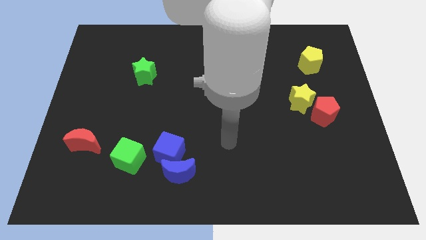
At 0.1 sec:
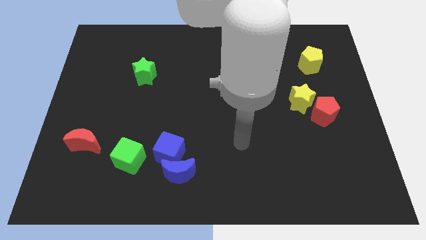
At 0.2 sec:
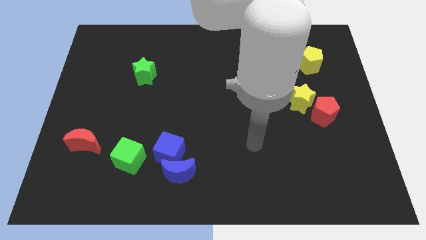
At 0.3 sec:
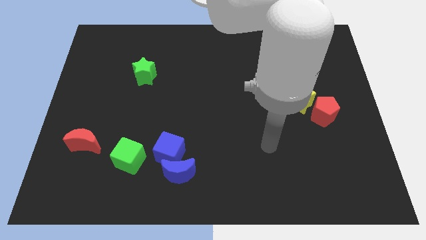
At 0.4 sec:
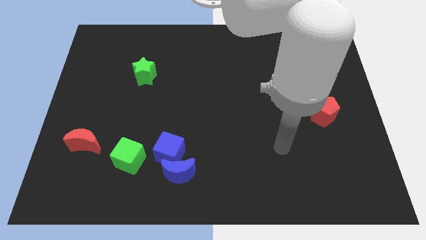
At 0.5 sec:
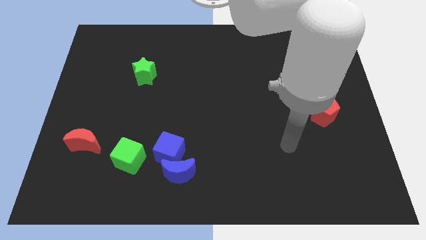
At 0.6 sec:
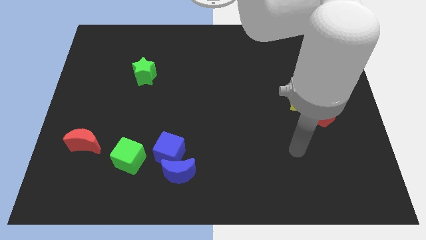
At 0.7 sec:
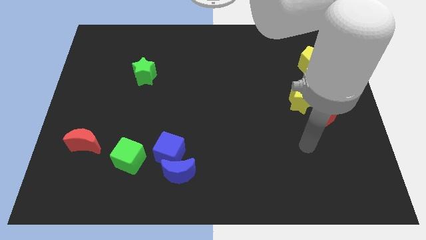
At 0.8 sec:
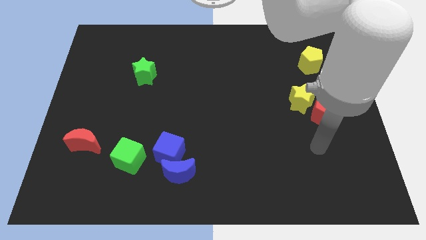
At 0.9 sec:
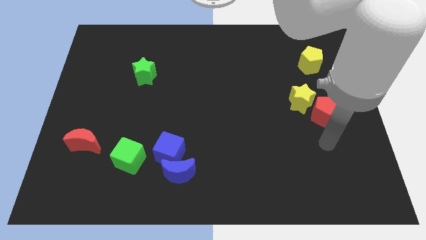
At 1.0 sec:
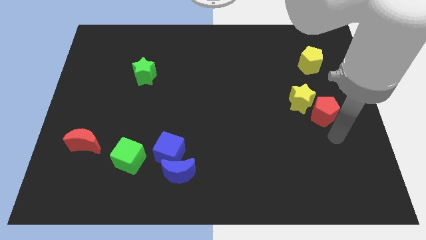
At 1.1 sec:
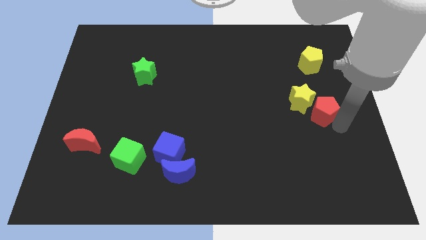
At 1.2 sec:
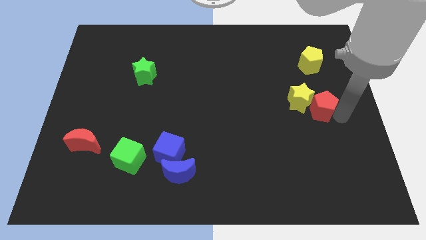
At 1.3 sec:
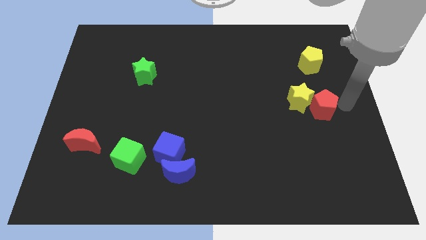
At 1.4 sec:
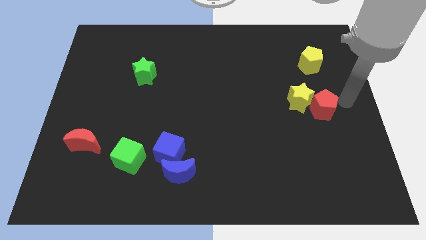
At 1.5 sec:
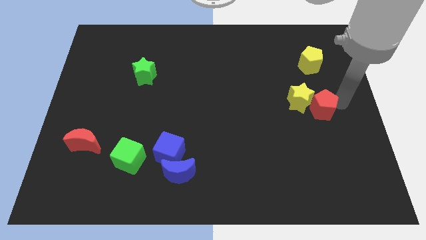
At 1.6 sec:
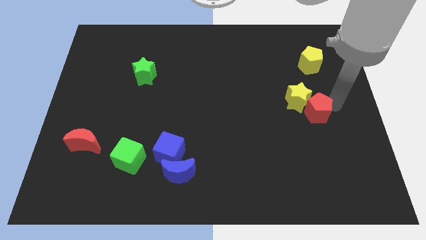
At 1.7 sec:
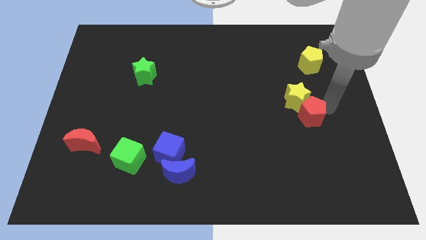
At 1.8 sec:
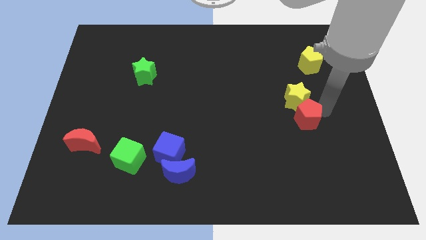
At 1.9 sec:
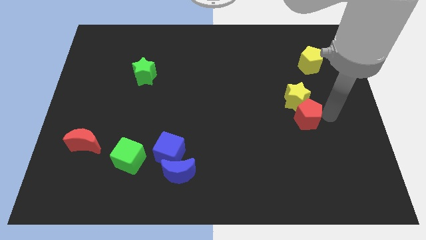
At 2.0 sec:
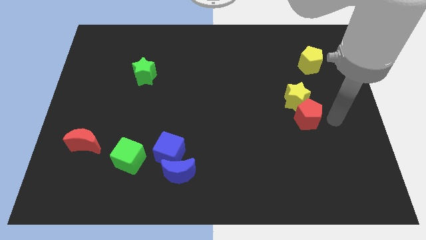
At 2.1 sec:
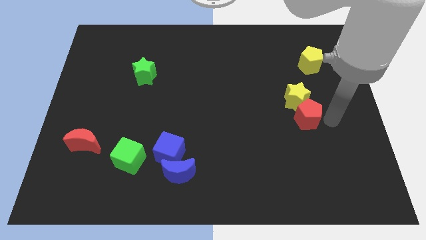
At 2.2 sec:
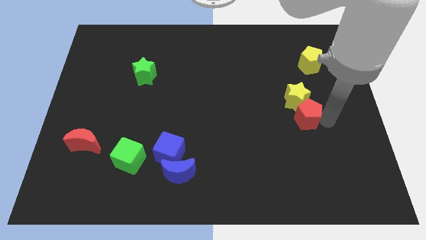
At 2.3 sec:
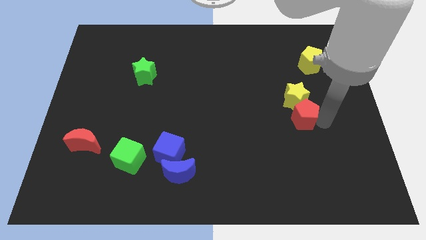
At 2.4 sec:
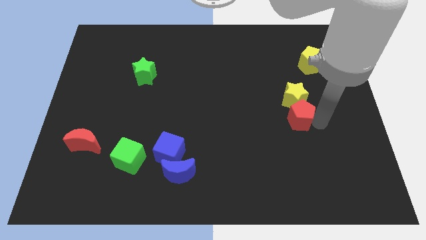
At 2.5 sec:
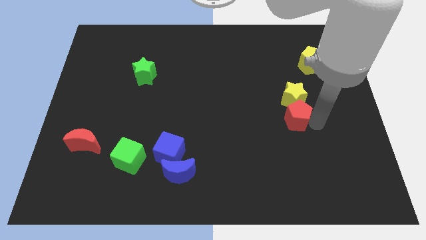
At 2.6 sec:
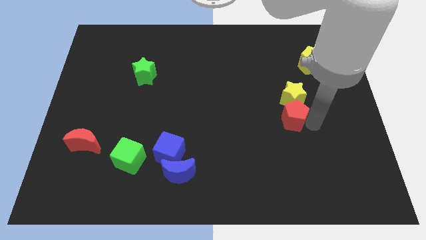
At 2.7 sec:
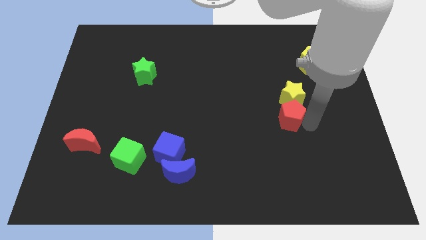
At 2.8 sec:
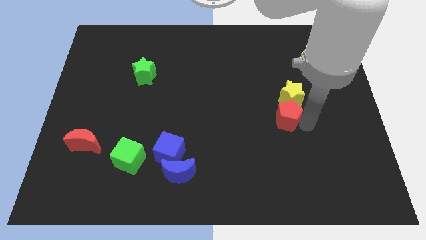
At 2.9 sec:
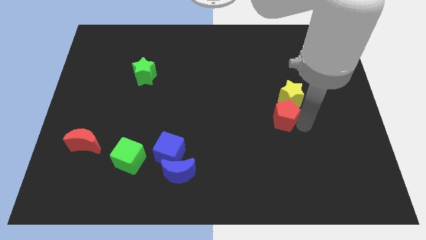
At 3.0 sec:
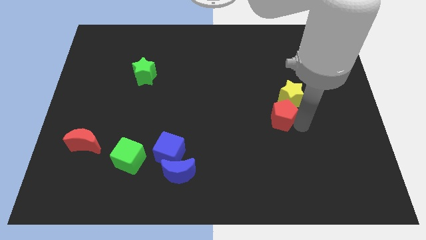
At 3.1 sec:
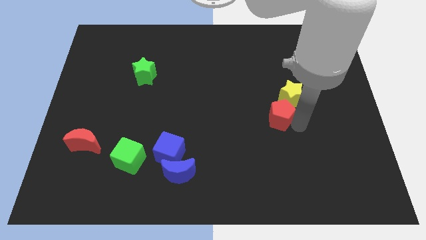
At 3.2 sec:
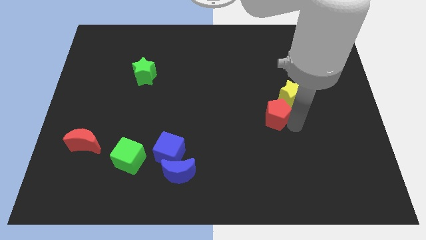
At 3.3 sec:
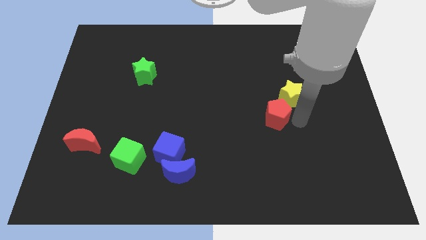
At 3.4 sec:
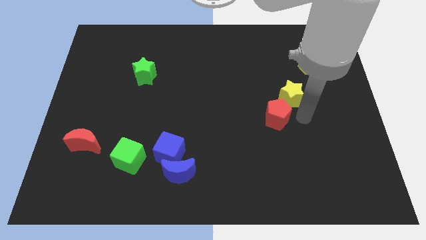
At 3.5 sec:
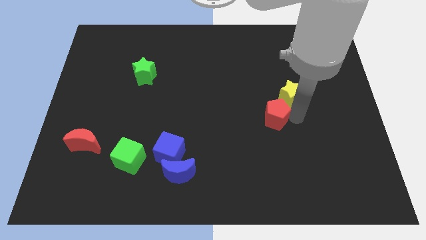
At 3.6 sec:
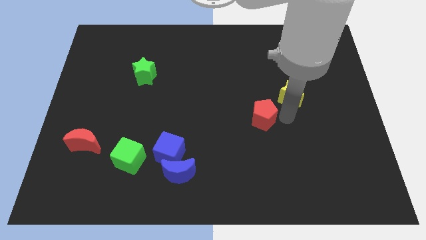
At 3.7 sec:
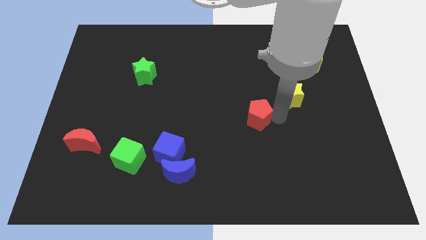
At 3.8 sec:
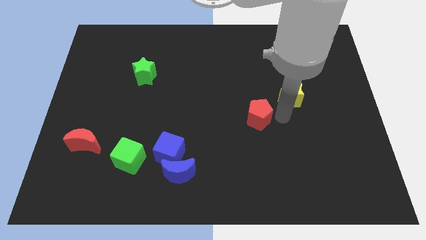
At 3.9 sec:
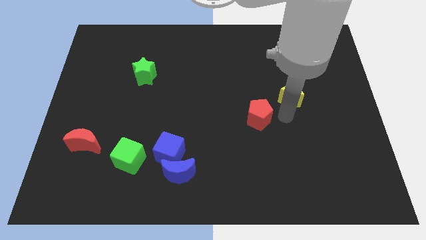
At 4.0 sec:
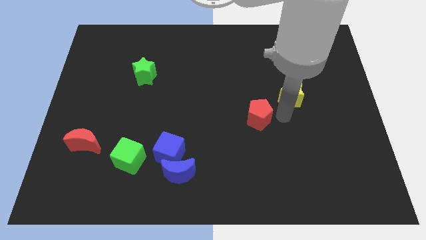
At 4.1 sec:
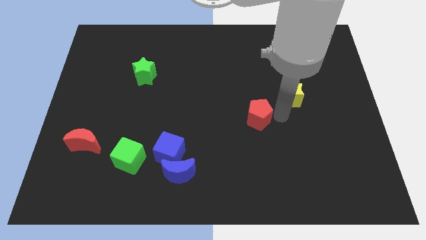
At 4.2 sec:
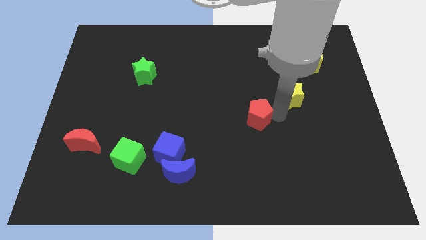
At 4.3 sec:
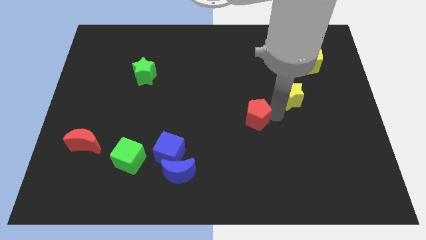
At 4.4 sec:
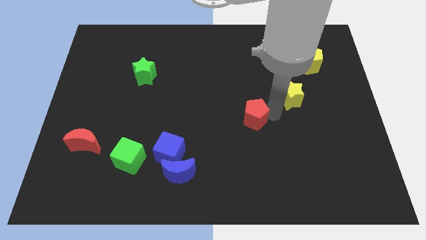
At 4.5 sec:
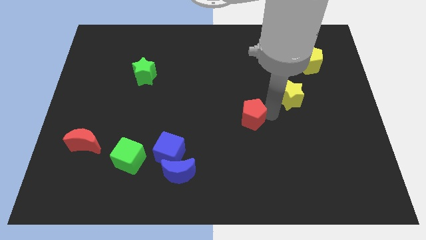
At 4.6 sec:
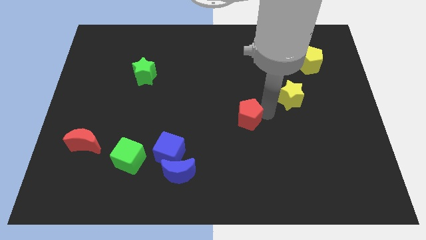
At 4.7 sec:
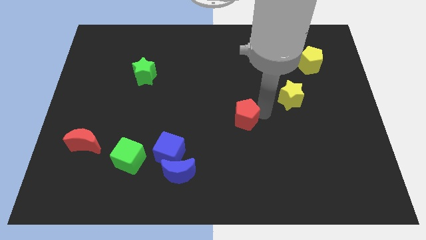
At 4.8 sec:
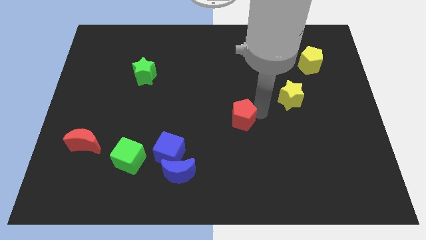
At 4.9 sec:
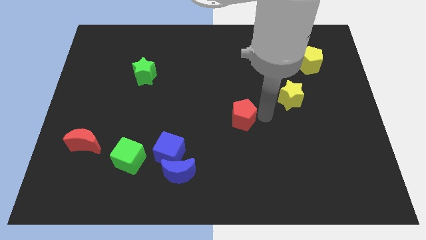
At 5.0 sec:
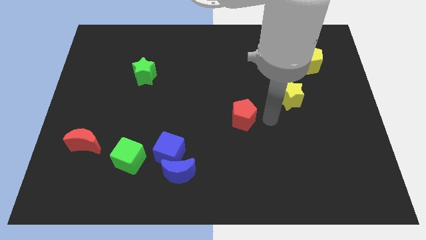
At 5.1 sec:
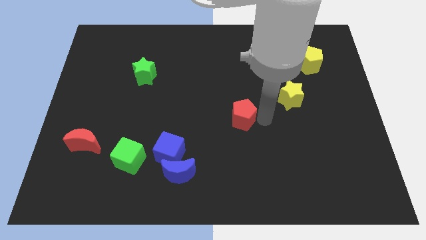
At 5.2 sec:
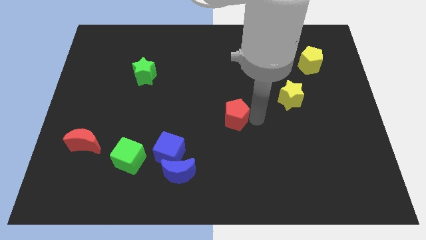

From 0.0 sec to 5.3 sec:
slide the red pentagon left

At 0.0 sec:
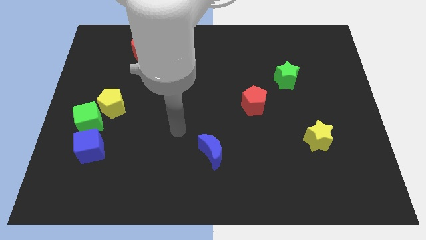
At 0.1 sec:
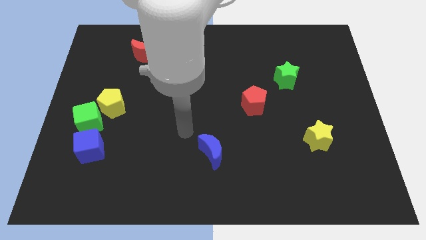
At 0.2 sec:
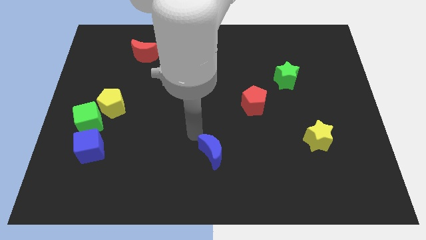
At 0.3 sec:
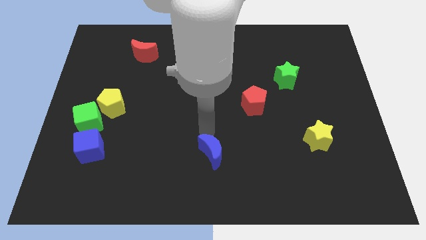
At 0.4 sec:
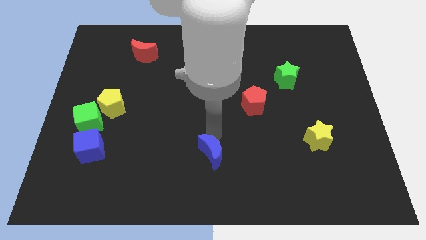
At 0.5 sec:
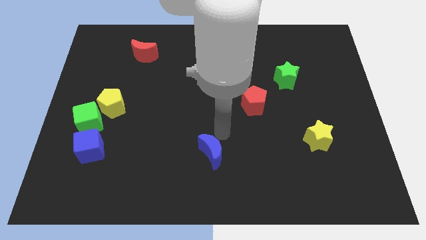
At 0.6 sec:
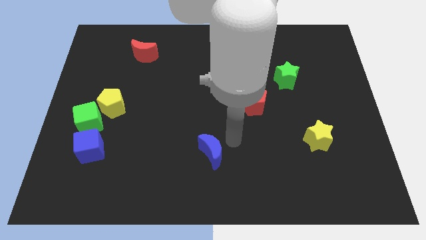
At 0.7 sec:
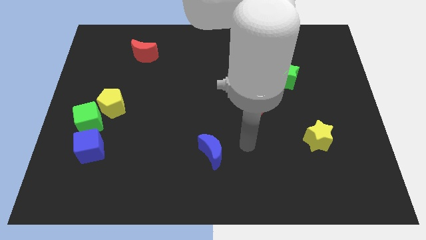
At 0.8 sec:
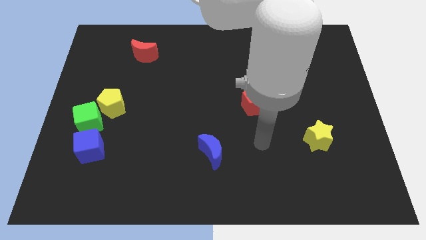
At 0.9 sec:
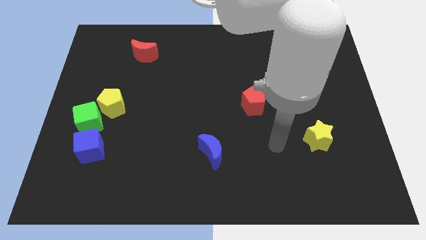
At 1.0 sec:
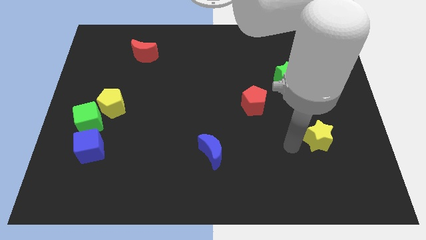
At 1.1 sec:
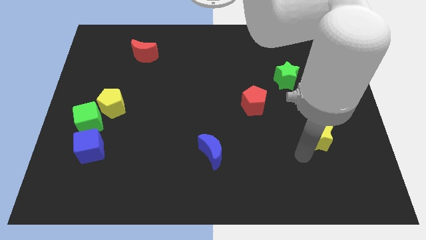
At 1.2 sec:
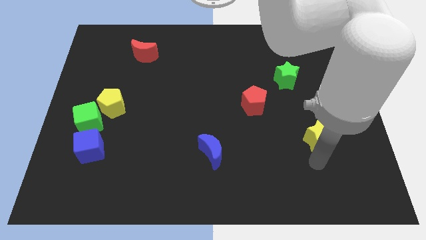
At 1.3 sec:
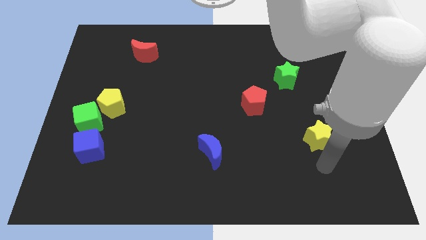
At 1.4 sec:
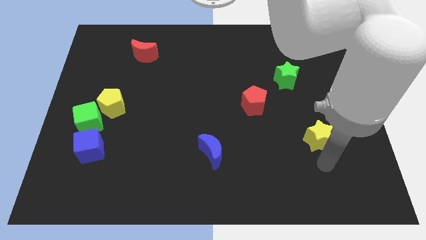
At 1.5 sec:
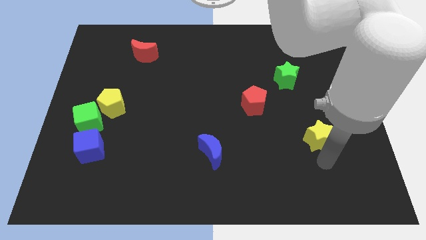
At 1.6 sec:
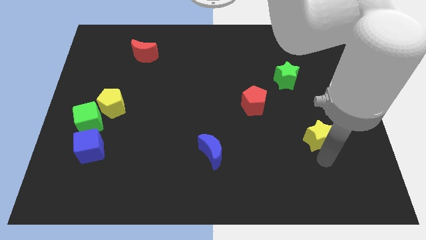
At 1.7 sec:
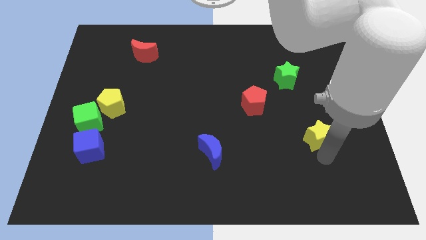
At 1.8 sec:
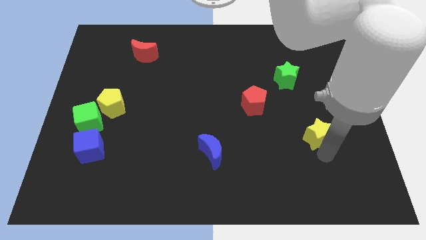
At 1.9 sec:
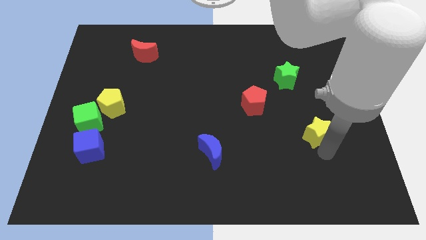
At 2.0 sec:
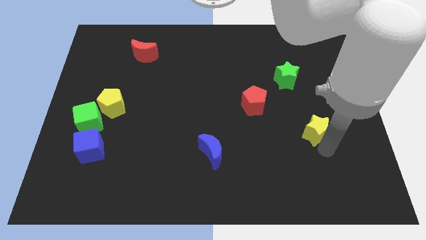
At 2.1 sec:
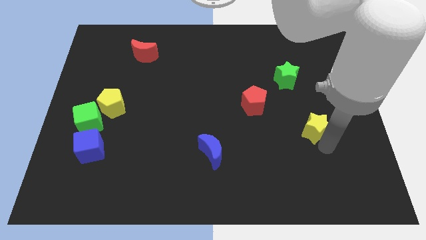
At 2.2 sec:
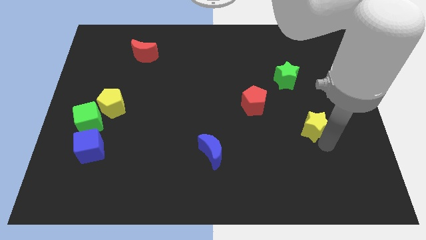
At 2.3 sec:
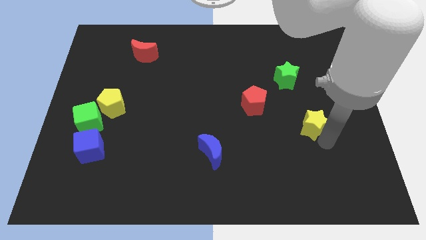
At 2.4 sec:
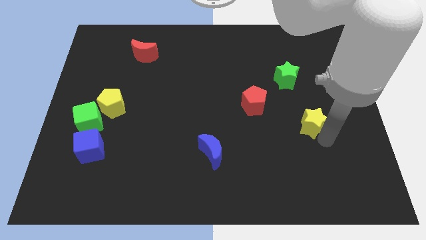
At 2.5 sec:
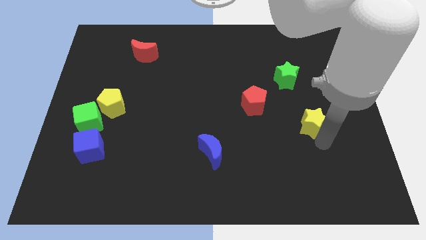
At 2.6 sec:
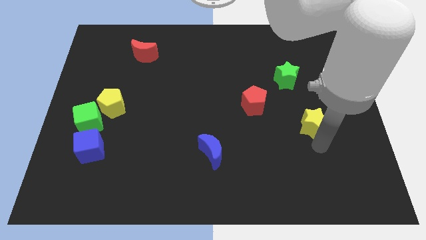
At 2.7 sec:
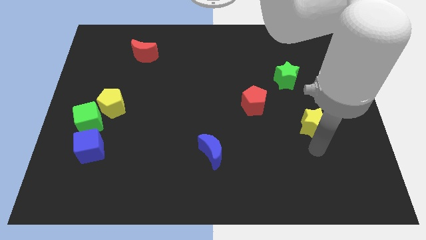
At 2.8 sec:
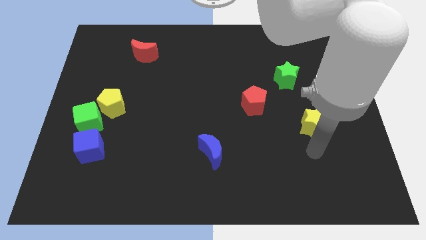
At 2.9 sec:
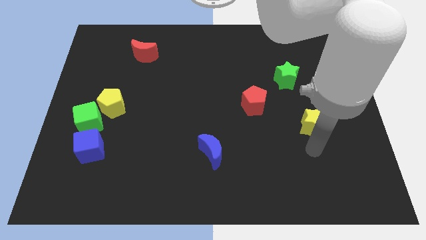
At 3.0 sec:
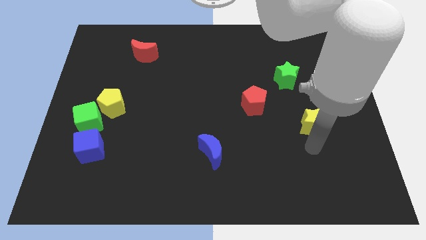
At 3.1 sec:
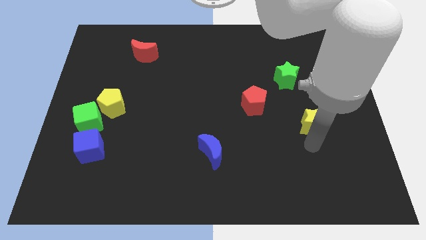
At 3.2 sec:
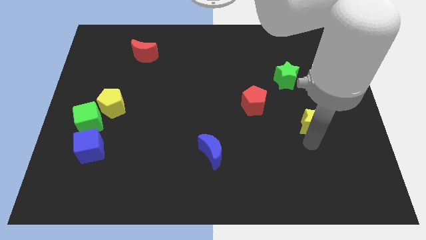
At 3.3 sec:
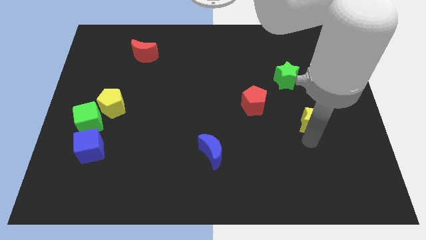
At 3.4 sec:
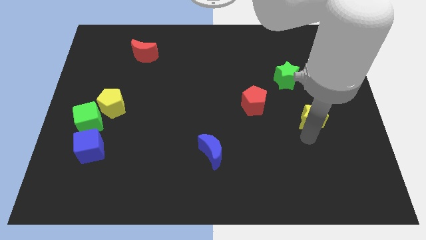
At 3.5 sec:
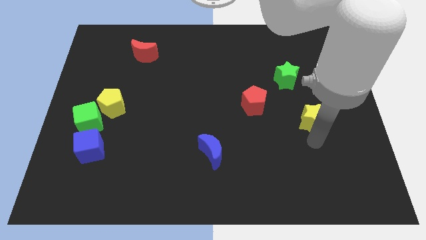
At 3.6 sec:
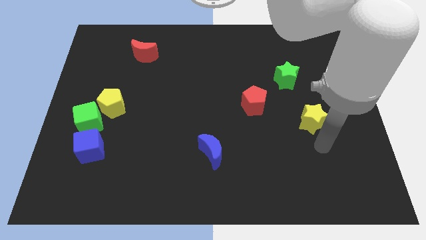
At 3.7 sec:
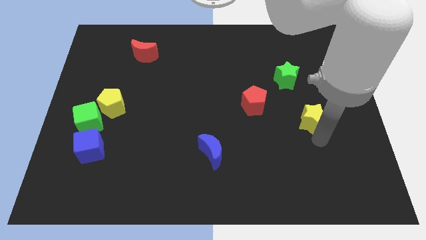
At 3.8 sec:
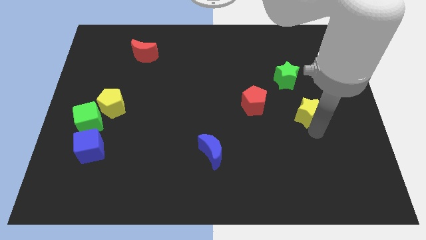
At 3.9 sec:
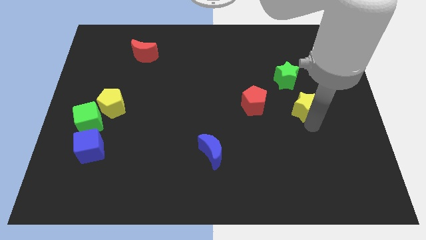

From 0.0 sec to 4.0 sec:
move the yellow star slightly up
